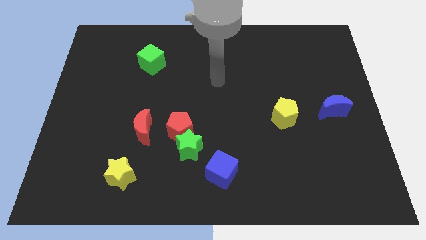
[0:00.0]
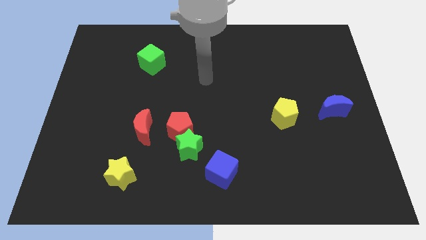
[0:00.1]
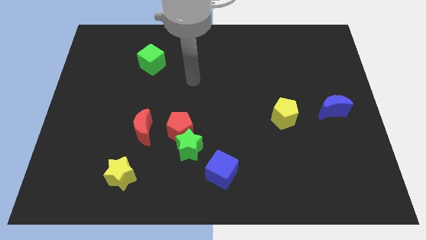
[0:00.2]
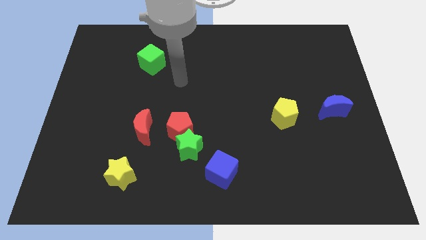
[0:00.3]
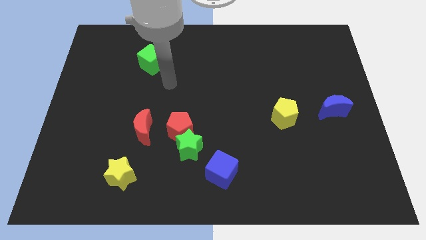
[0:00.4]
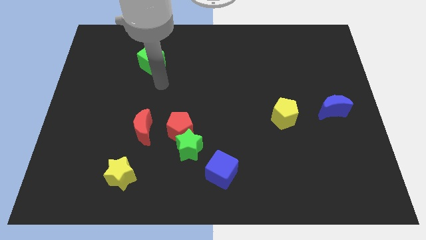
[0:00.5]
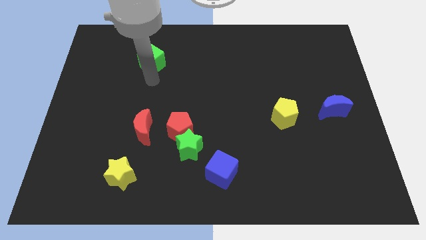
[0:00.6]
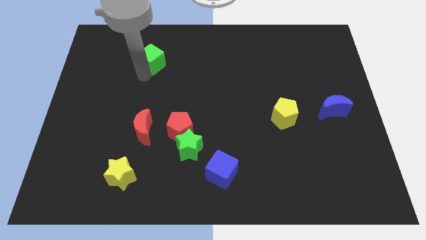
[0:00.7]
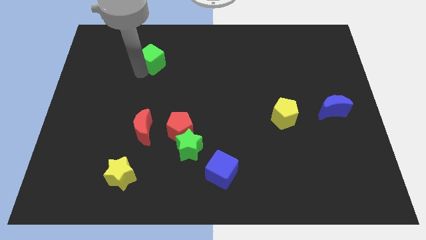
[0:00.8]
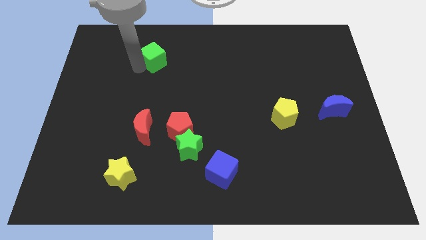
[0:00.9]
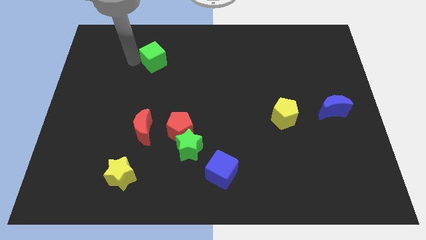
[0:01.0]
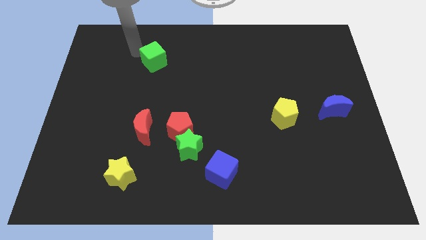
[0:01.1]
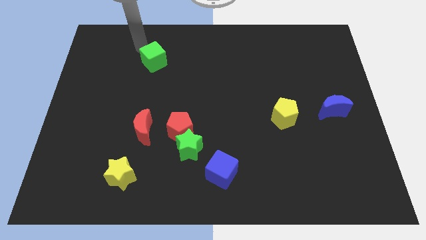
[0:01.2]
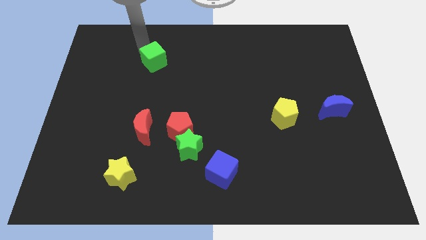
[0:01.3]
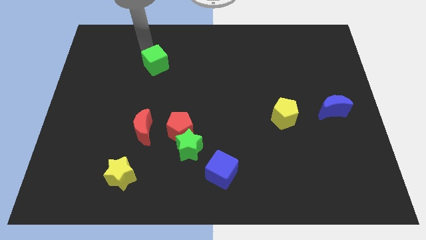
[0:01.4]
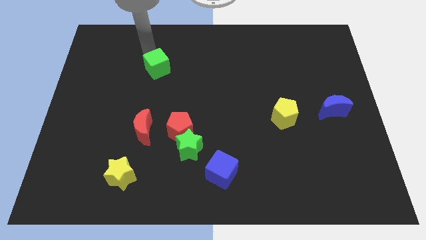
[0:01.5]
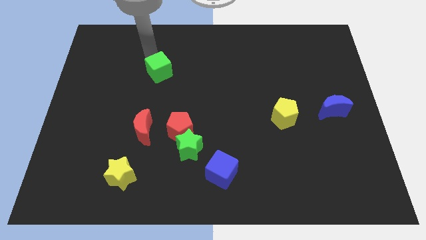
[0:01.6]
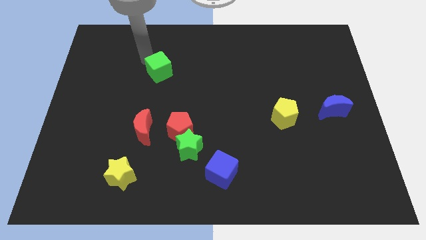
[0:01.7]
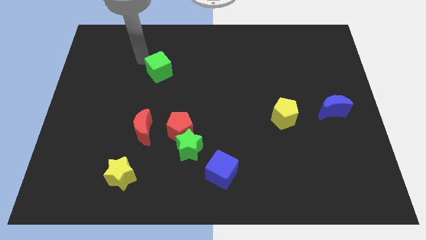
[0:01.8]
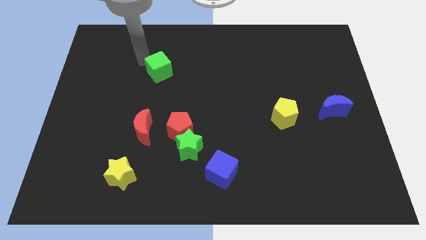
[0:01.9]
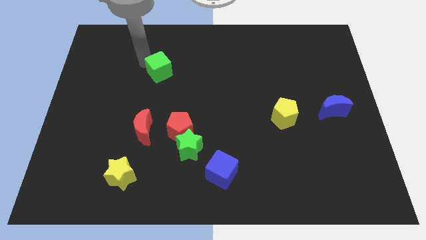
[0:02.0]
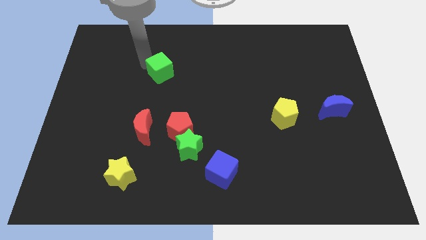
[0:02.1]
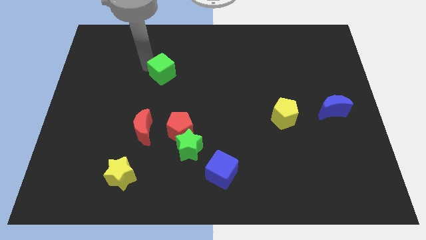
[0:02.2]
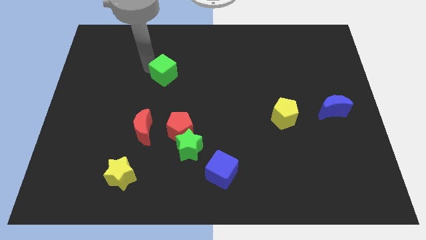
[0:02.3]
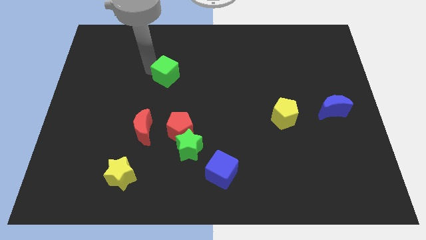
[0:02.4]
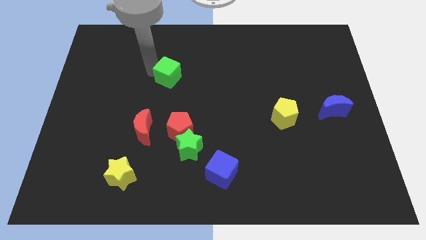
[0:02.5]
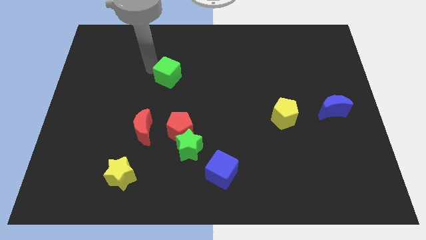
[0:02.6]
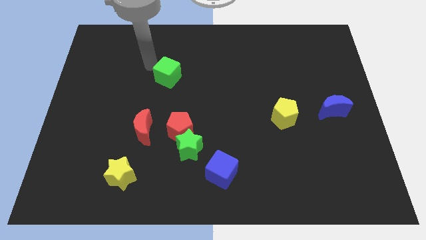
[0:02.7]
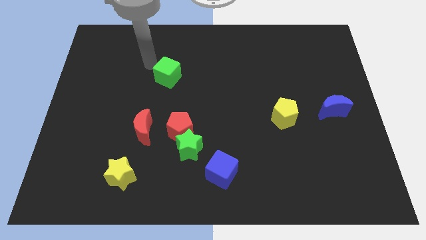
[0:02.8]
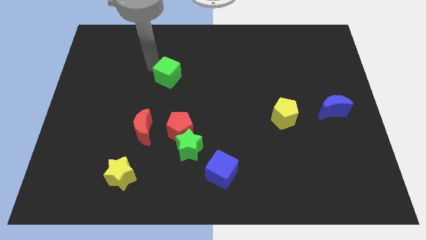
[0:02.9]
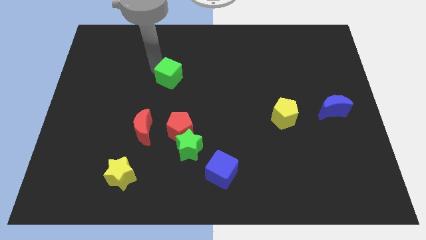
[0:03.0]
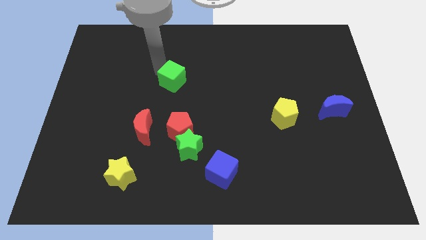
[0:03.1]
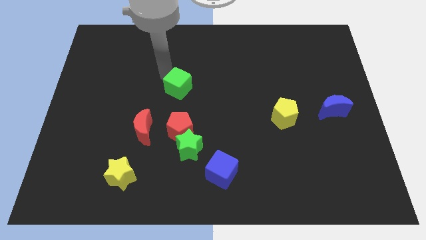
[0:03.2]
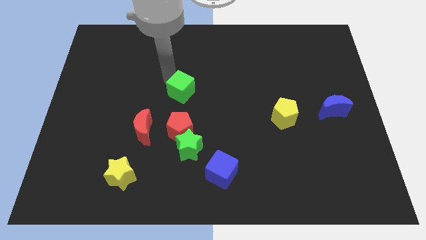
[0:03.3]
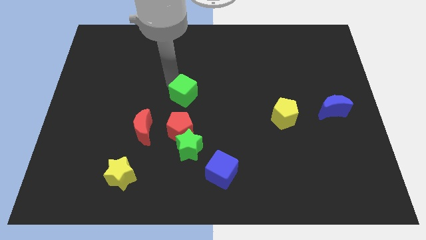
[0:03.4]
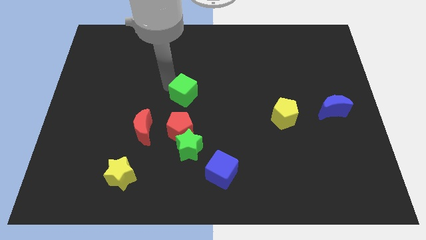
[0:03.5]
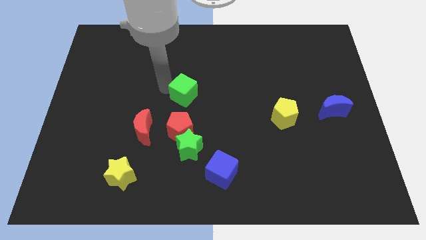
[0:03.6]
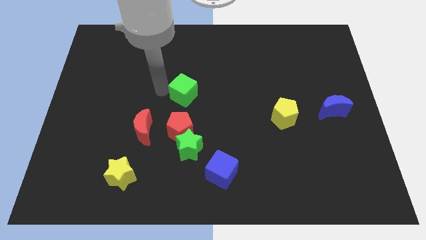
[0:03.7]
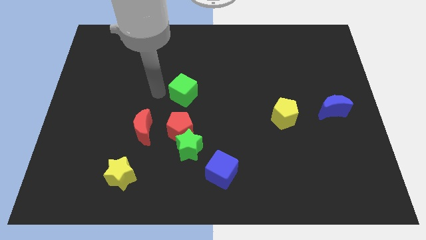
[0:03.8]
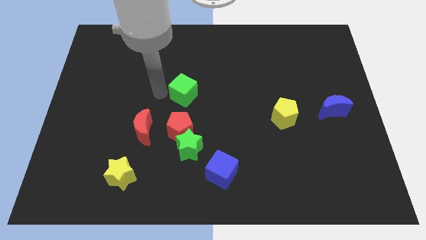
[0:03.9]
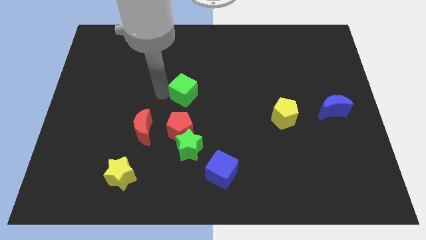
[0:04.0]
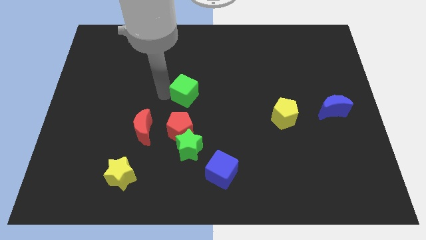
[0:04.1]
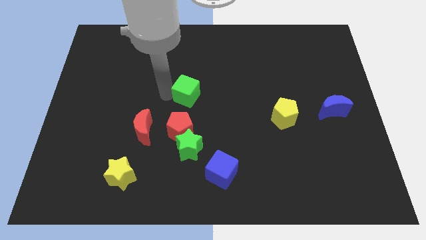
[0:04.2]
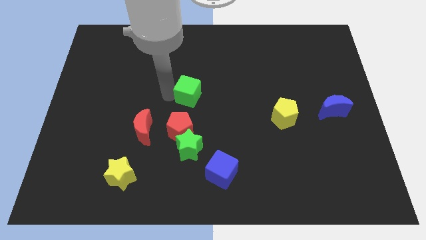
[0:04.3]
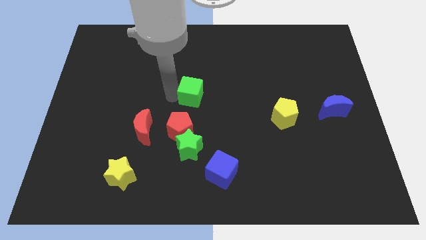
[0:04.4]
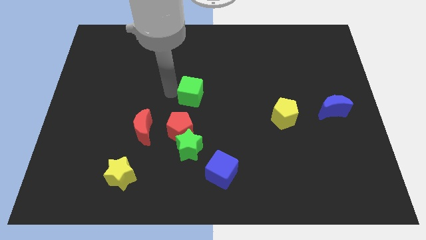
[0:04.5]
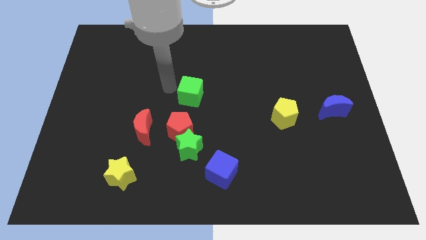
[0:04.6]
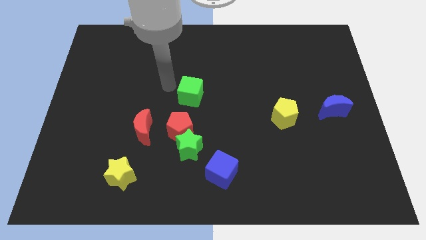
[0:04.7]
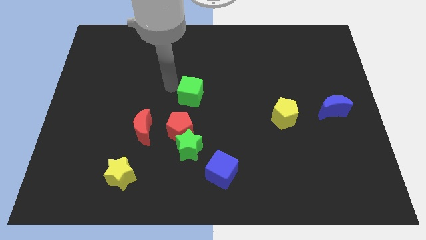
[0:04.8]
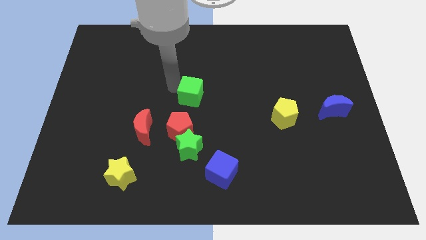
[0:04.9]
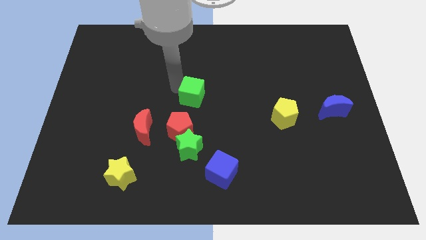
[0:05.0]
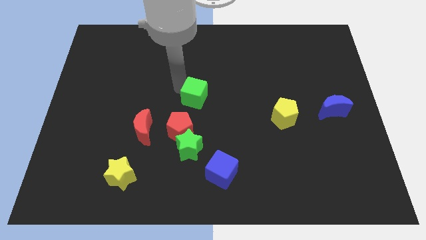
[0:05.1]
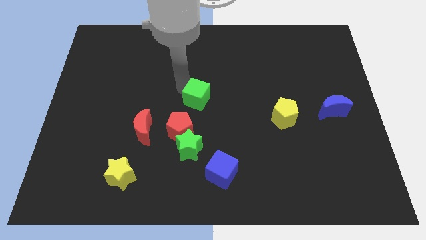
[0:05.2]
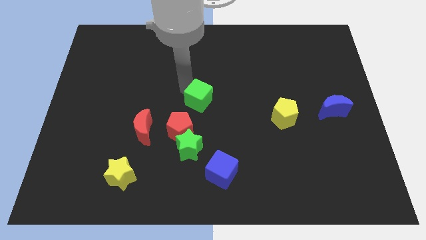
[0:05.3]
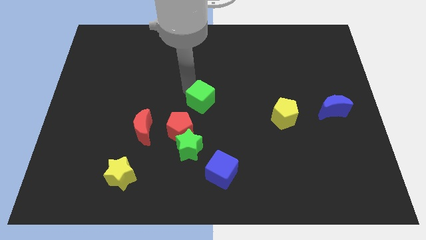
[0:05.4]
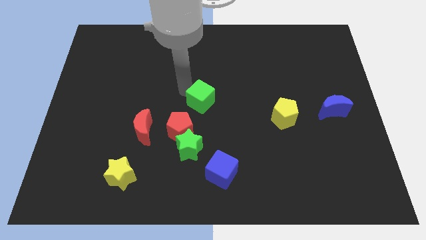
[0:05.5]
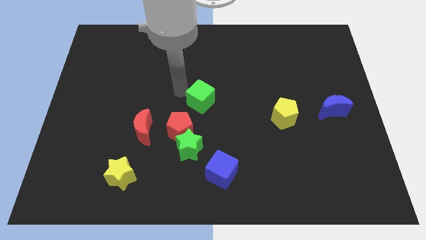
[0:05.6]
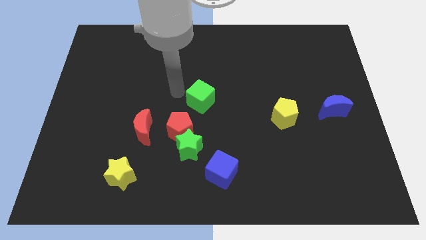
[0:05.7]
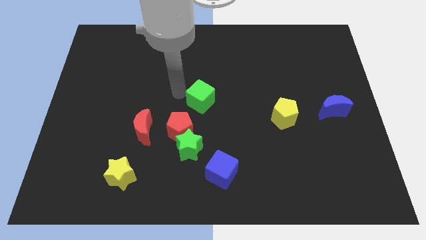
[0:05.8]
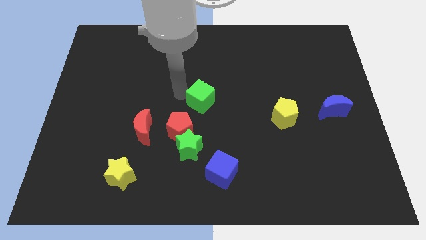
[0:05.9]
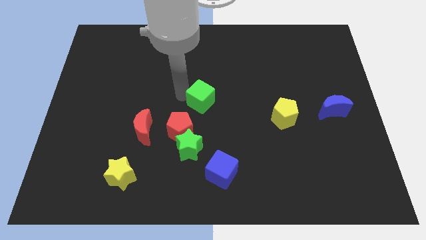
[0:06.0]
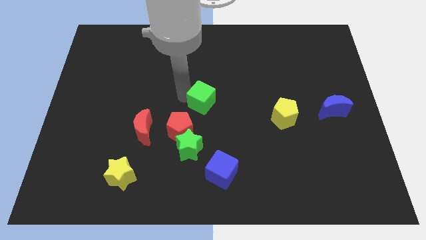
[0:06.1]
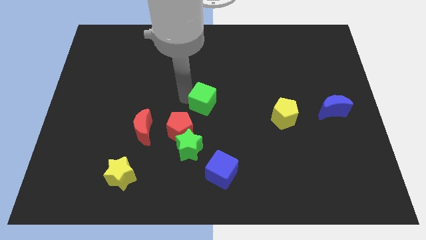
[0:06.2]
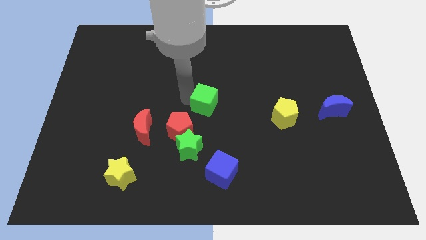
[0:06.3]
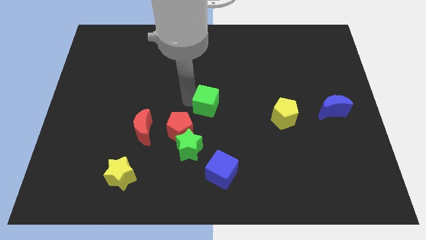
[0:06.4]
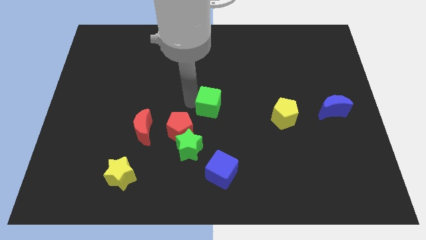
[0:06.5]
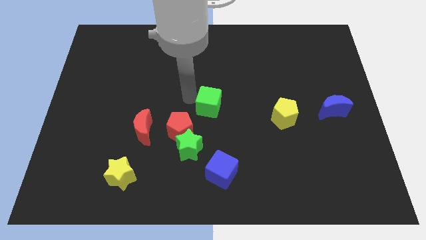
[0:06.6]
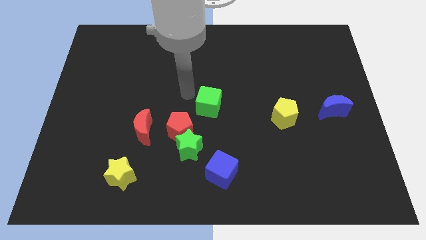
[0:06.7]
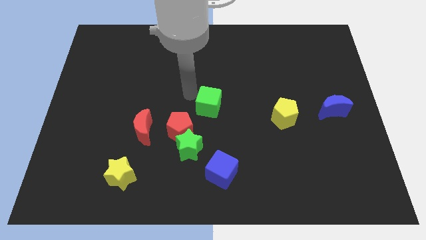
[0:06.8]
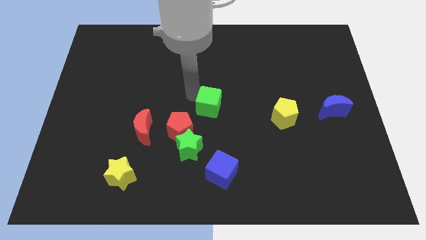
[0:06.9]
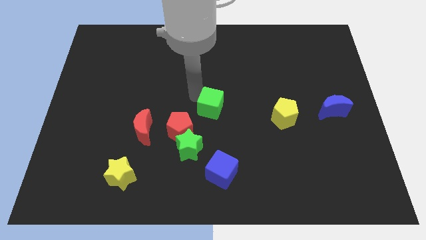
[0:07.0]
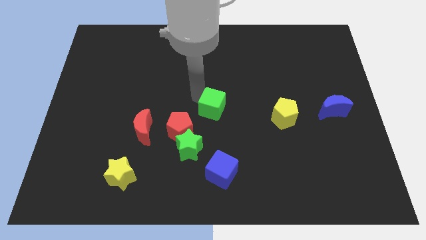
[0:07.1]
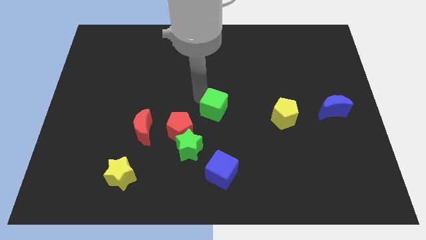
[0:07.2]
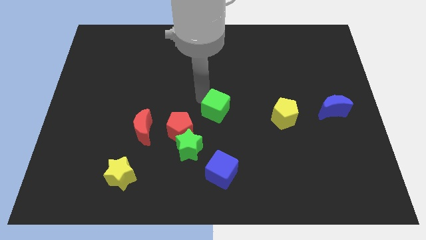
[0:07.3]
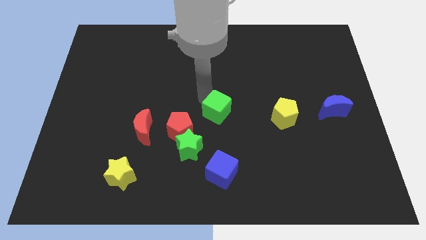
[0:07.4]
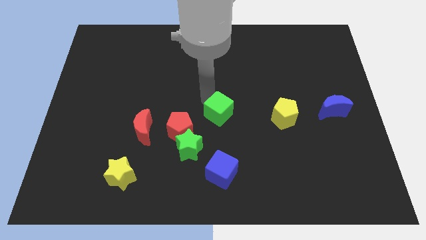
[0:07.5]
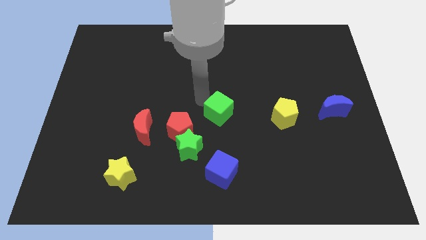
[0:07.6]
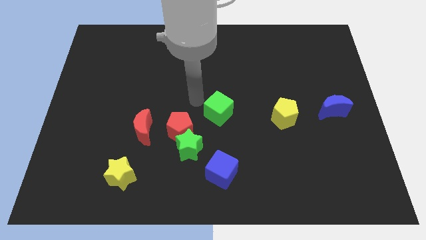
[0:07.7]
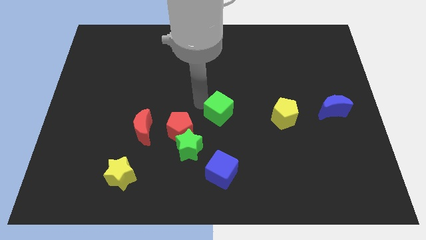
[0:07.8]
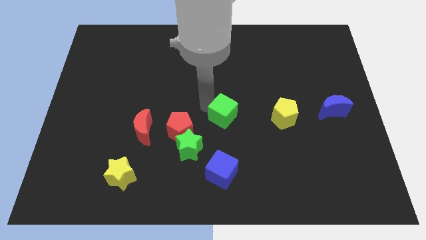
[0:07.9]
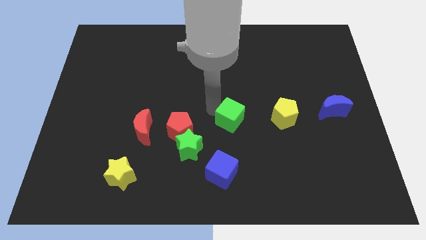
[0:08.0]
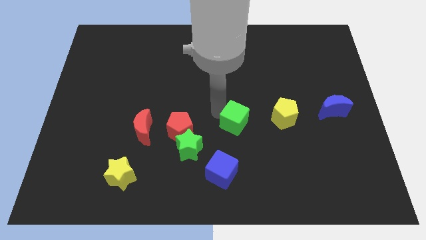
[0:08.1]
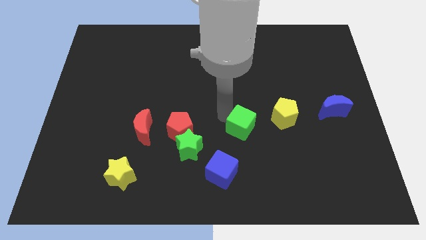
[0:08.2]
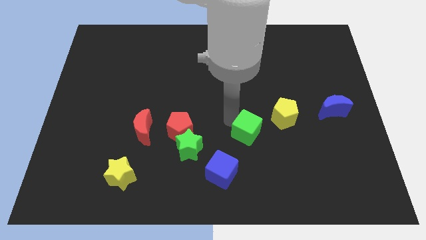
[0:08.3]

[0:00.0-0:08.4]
push the green cube to the bottom left side of the yellow pentagon
